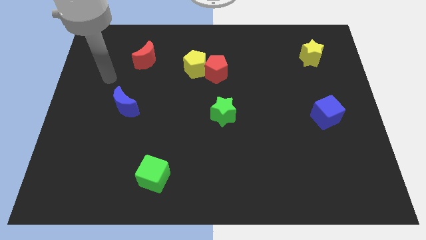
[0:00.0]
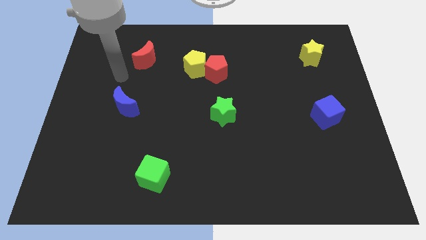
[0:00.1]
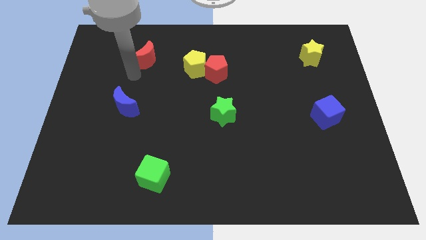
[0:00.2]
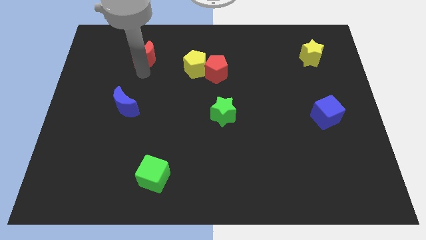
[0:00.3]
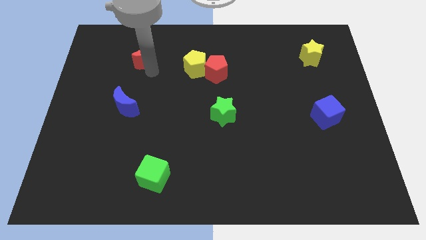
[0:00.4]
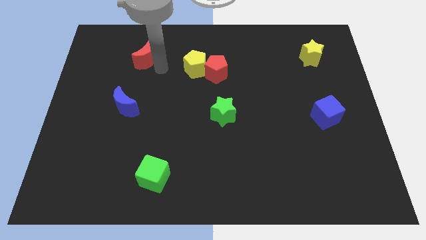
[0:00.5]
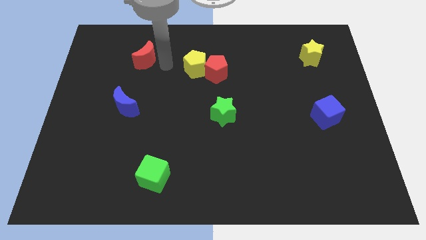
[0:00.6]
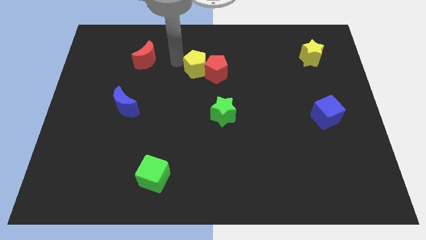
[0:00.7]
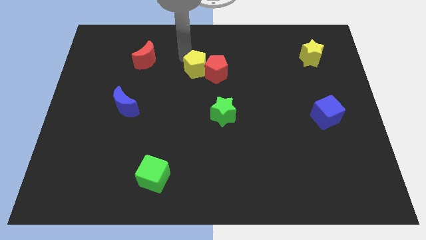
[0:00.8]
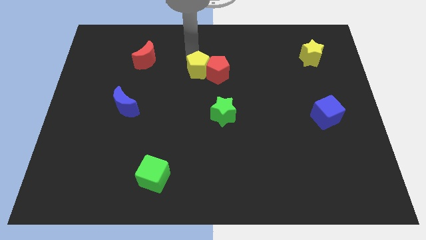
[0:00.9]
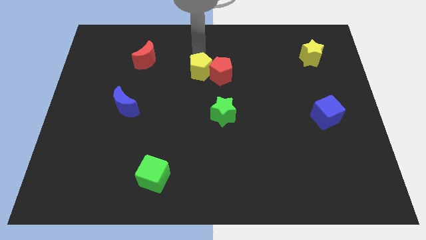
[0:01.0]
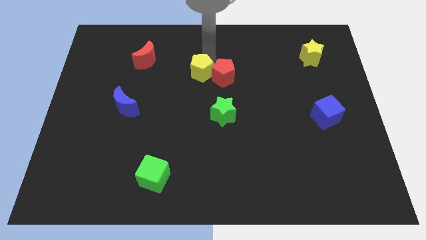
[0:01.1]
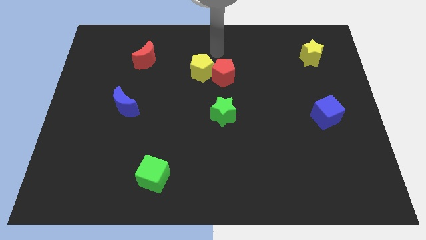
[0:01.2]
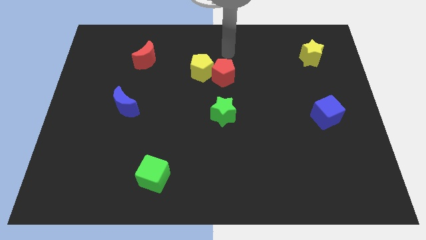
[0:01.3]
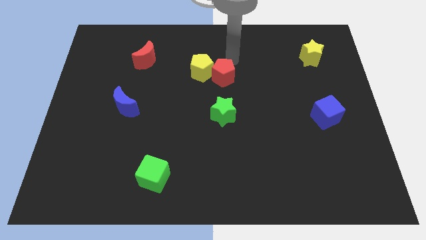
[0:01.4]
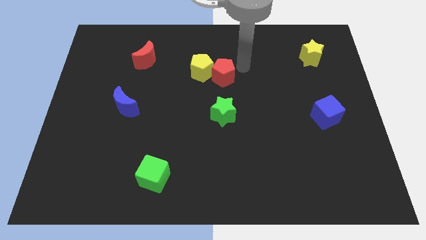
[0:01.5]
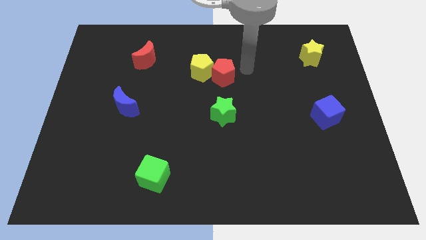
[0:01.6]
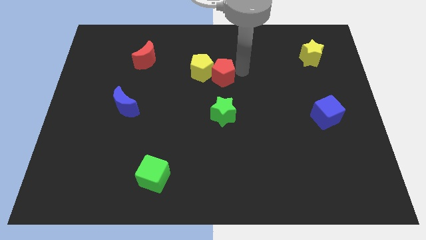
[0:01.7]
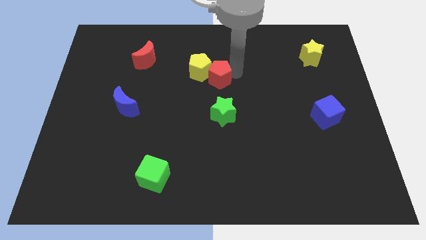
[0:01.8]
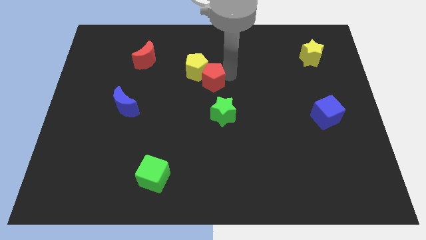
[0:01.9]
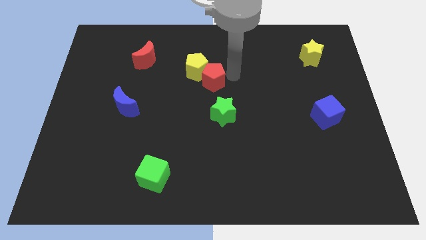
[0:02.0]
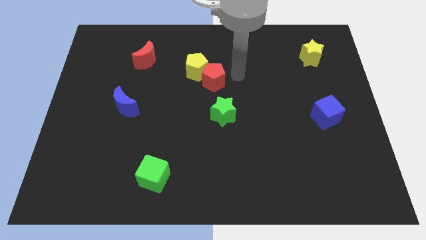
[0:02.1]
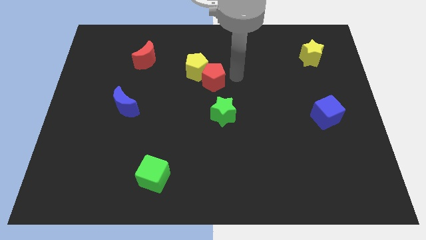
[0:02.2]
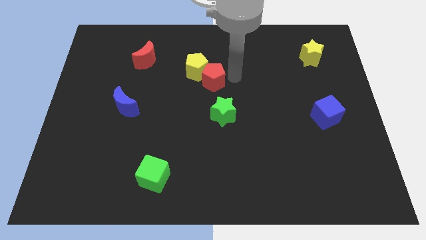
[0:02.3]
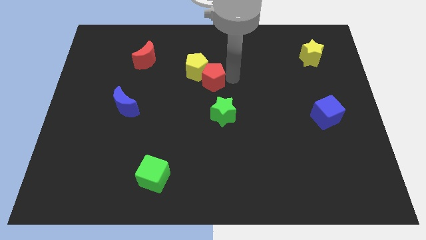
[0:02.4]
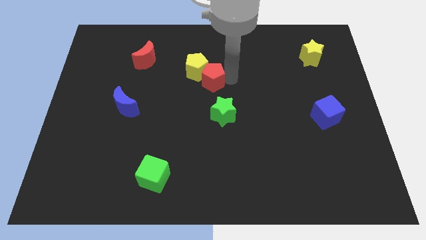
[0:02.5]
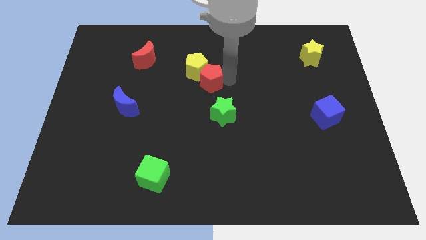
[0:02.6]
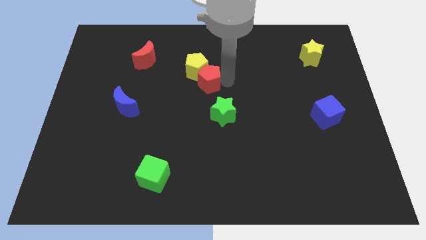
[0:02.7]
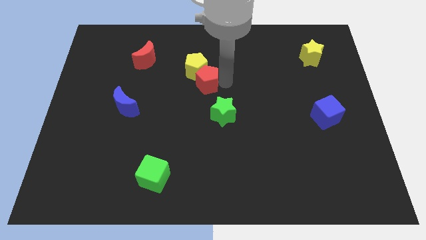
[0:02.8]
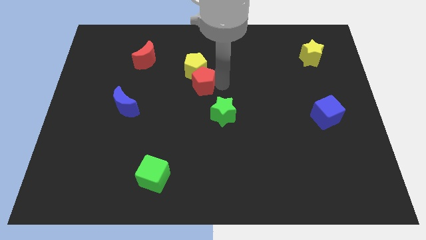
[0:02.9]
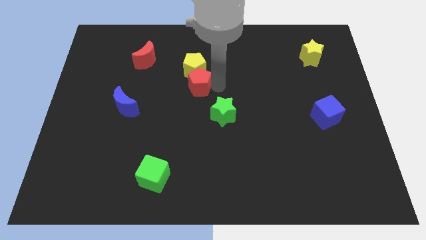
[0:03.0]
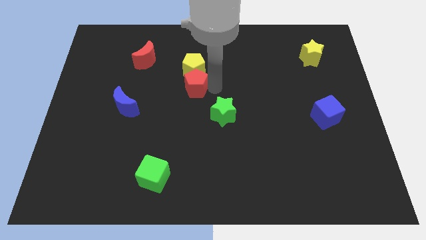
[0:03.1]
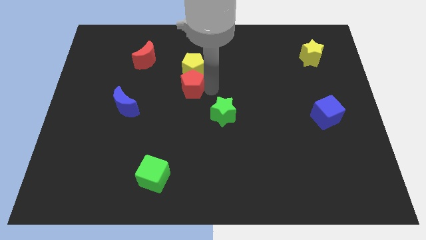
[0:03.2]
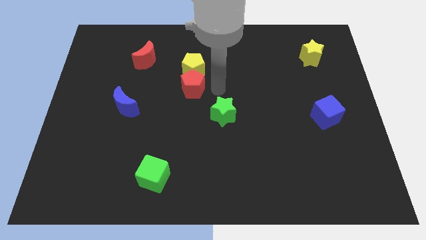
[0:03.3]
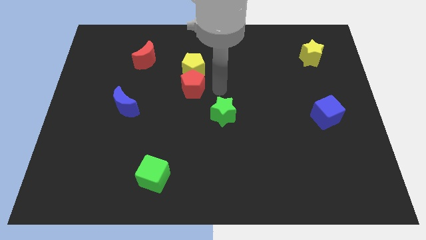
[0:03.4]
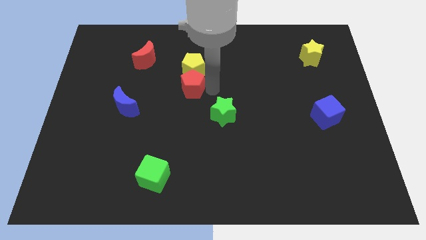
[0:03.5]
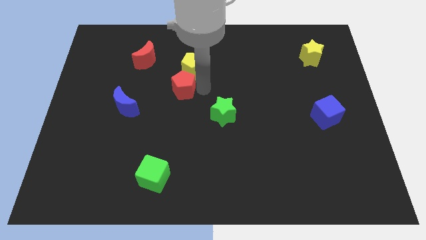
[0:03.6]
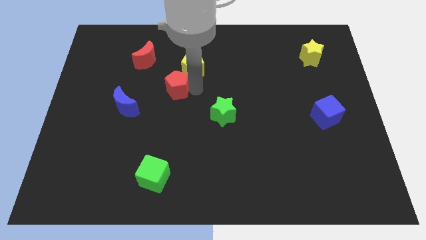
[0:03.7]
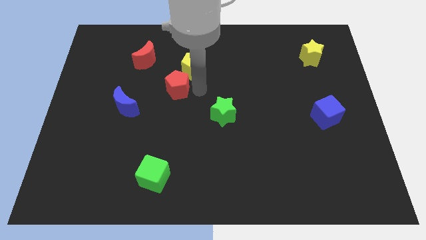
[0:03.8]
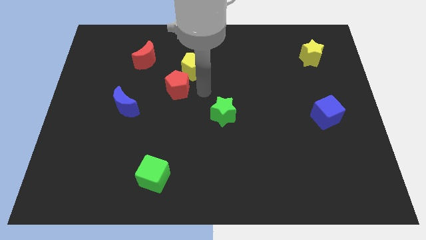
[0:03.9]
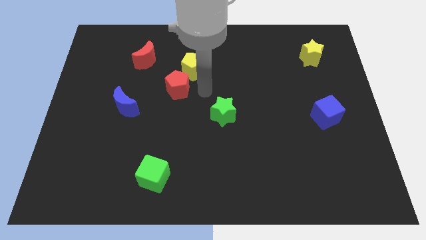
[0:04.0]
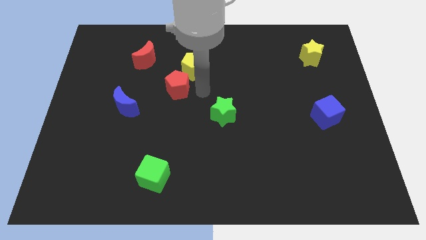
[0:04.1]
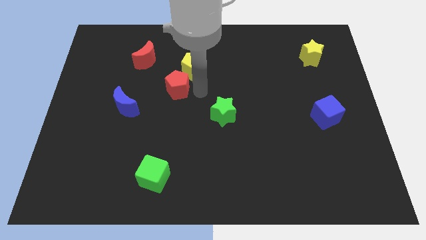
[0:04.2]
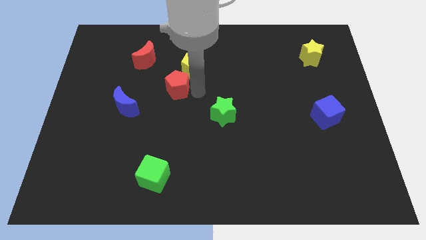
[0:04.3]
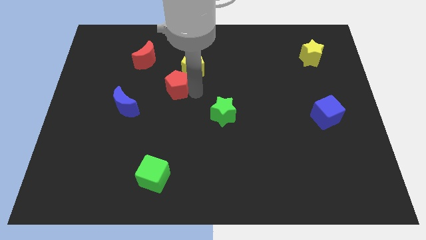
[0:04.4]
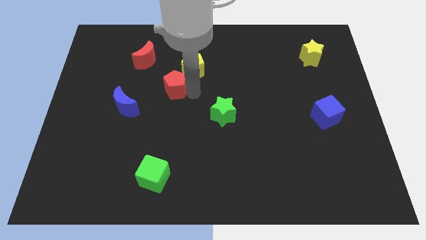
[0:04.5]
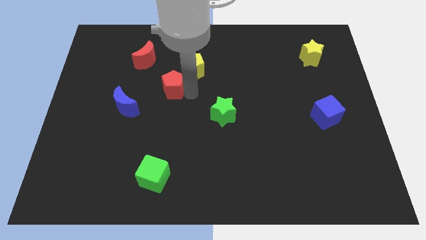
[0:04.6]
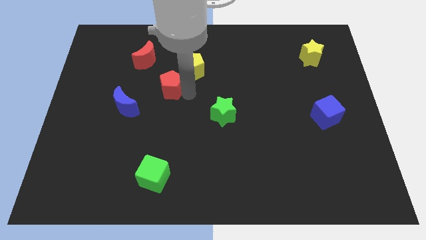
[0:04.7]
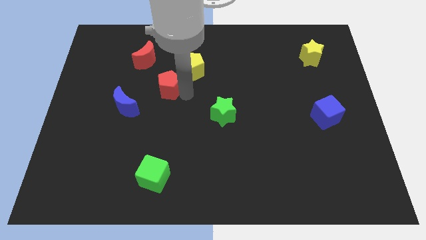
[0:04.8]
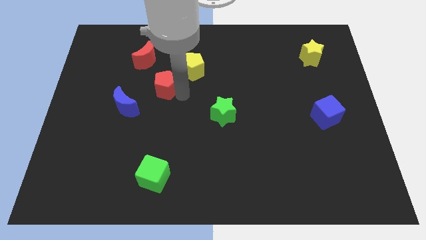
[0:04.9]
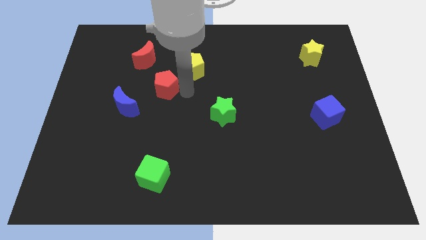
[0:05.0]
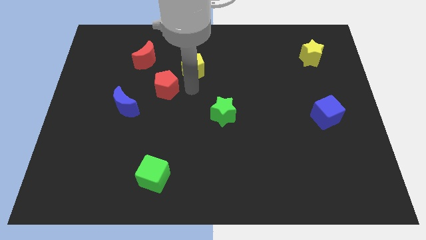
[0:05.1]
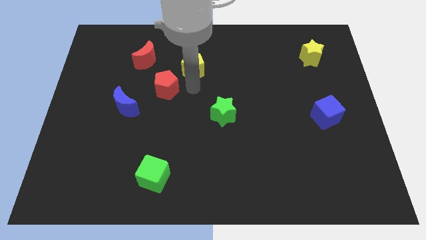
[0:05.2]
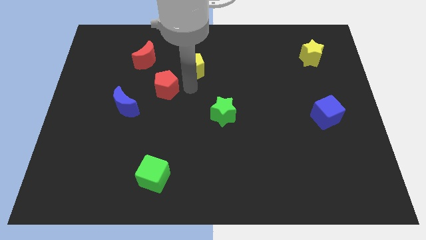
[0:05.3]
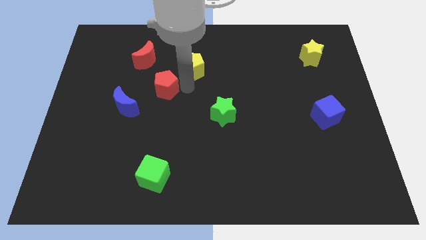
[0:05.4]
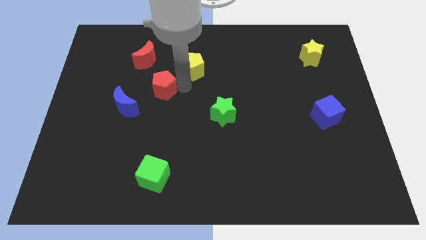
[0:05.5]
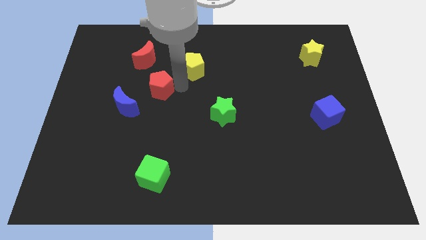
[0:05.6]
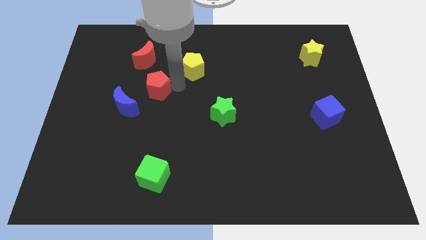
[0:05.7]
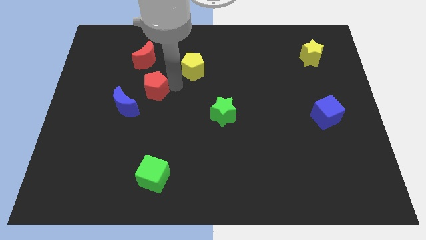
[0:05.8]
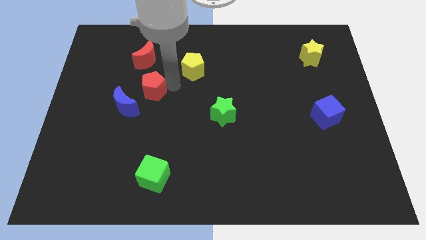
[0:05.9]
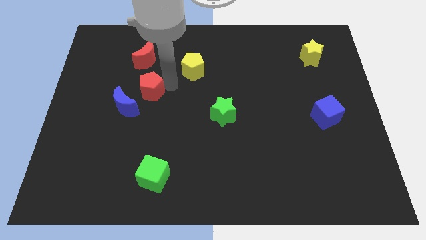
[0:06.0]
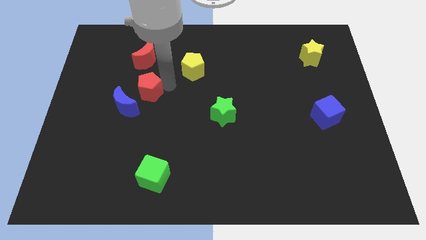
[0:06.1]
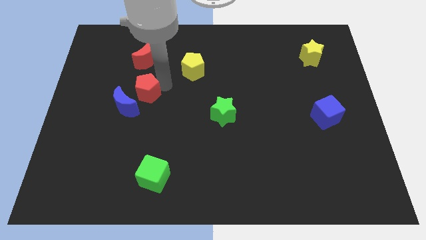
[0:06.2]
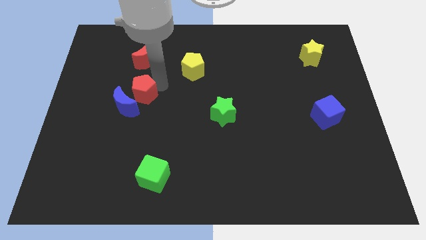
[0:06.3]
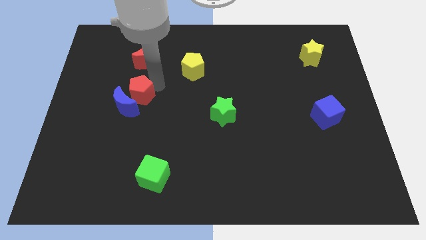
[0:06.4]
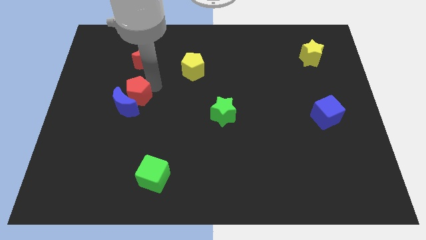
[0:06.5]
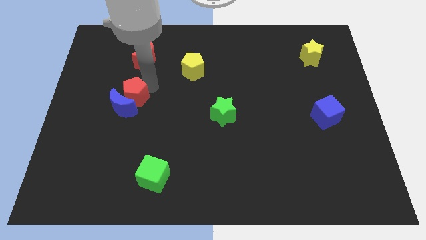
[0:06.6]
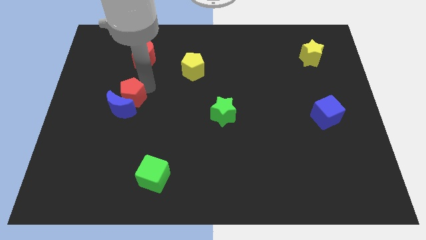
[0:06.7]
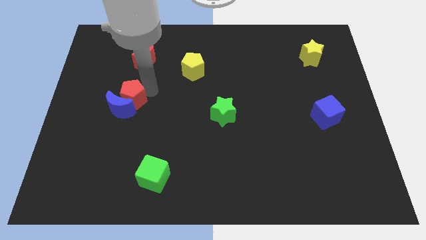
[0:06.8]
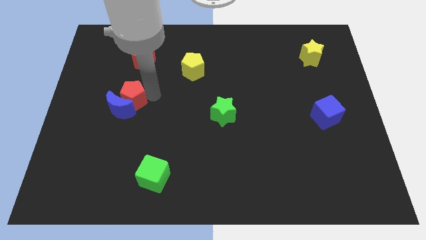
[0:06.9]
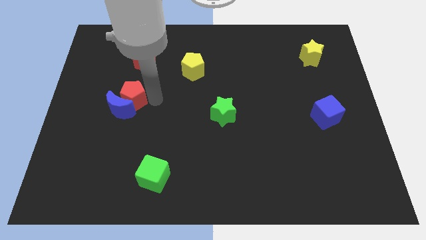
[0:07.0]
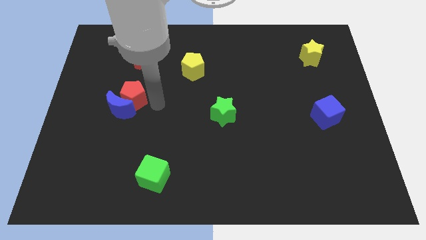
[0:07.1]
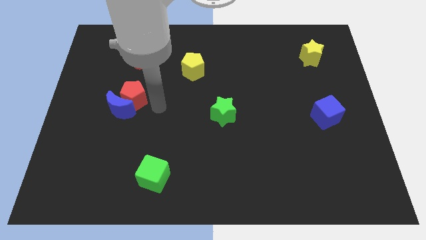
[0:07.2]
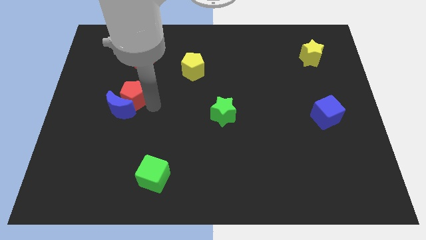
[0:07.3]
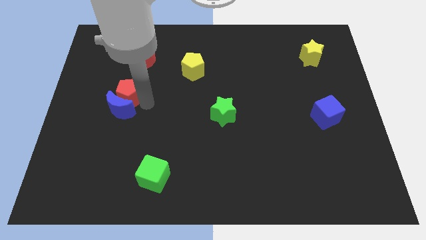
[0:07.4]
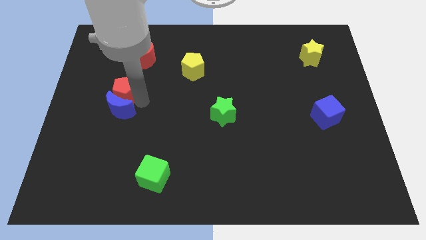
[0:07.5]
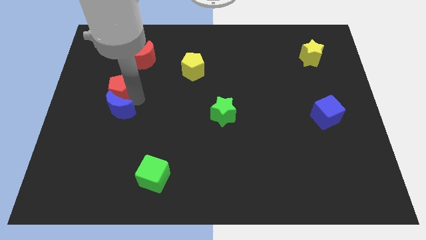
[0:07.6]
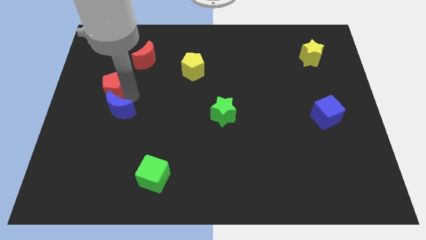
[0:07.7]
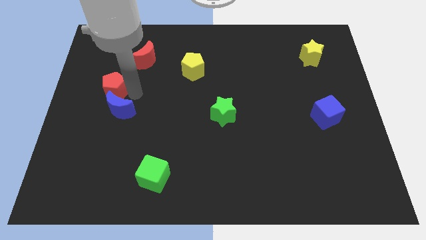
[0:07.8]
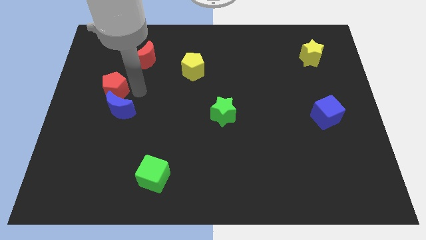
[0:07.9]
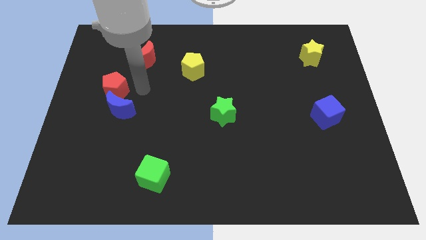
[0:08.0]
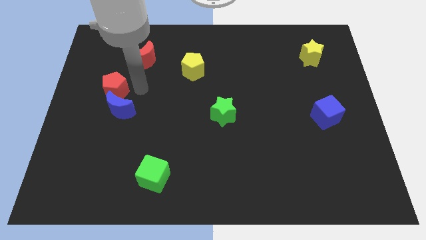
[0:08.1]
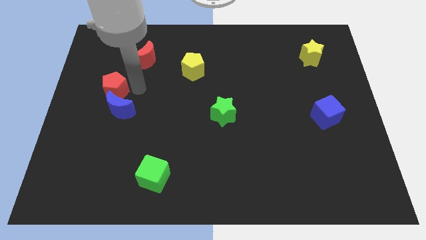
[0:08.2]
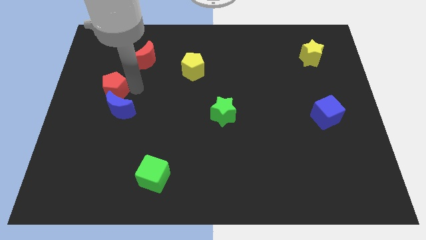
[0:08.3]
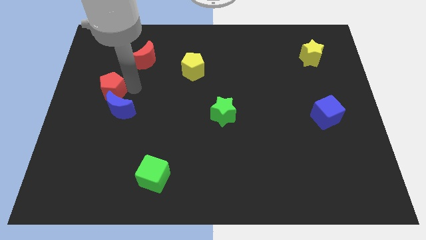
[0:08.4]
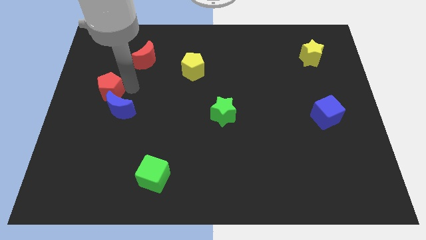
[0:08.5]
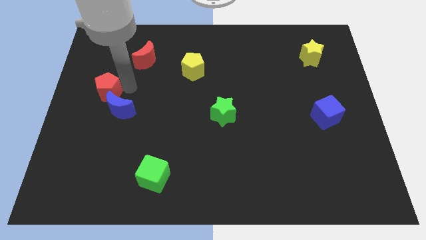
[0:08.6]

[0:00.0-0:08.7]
move the red pentagon to the left side
